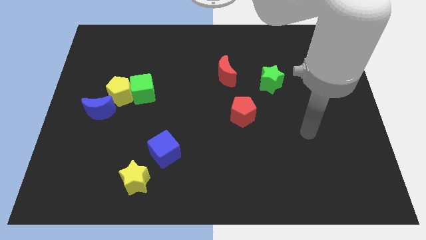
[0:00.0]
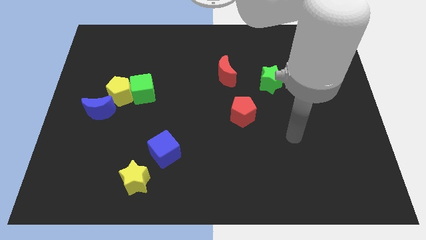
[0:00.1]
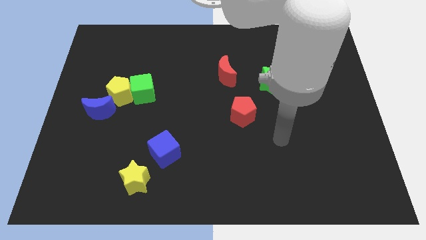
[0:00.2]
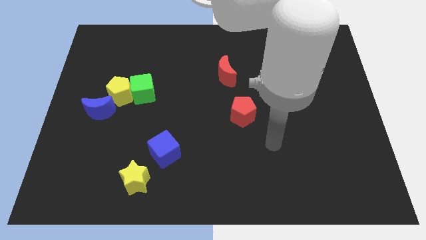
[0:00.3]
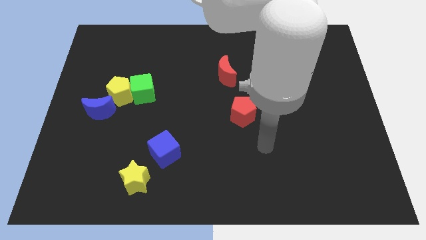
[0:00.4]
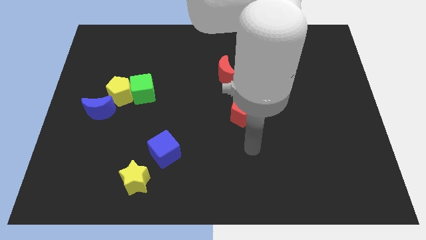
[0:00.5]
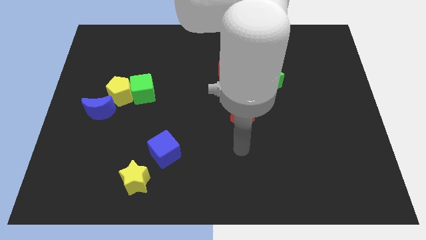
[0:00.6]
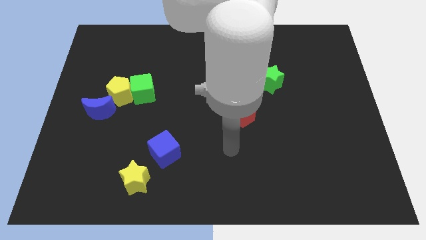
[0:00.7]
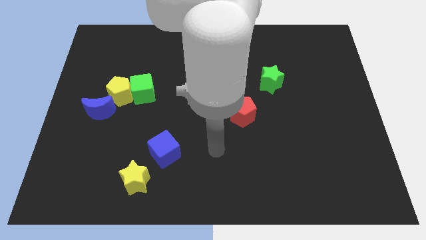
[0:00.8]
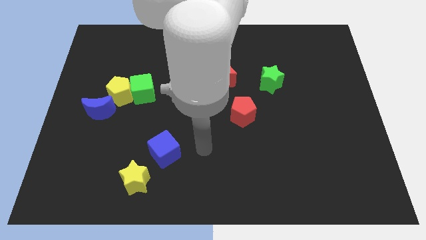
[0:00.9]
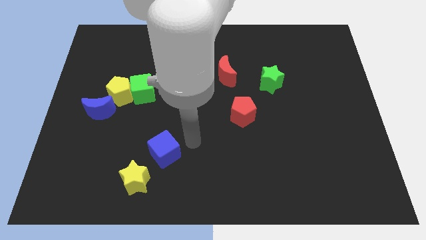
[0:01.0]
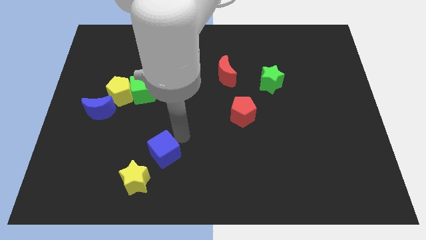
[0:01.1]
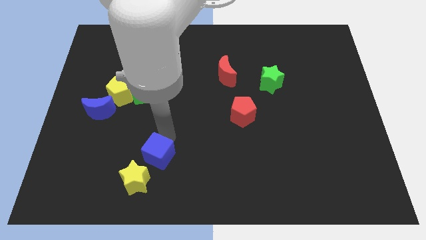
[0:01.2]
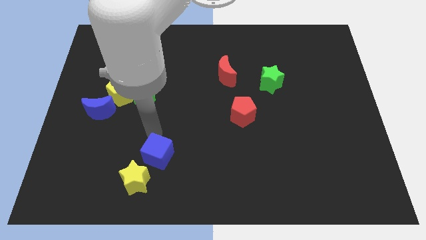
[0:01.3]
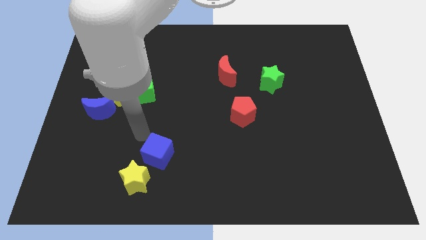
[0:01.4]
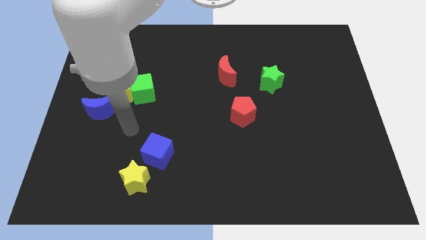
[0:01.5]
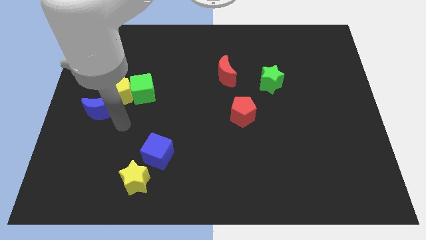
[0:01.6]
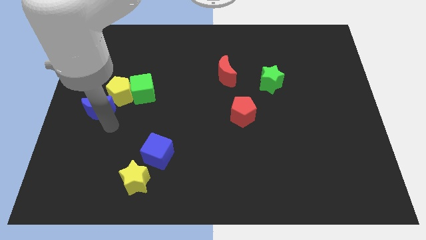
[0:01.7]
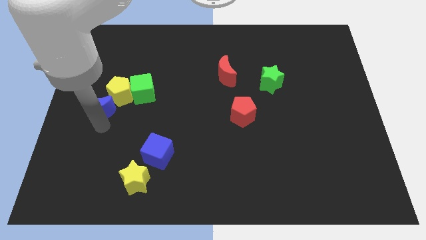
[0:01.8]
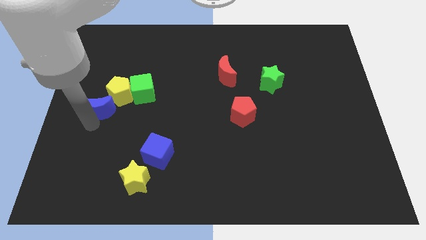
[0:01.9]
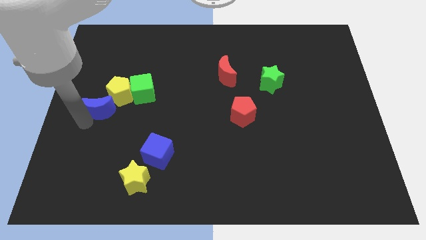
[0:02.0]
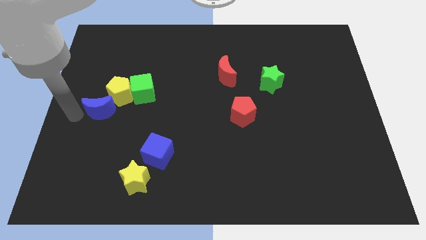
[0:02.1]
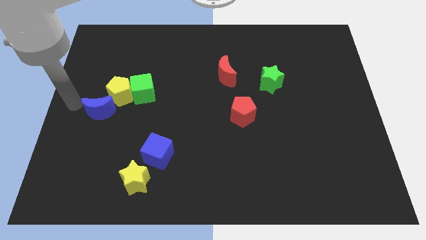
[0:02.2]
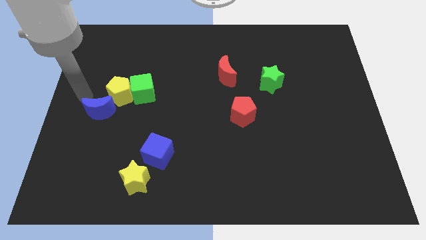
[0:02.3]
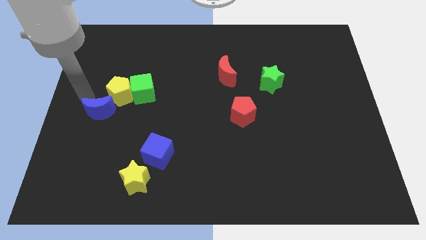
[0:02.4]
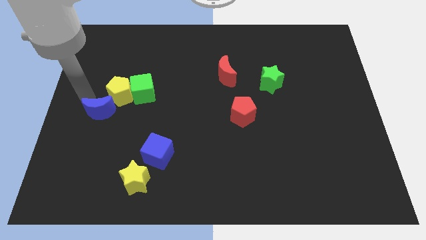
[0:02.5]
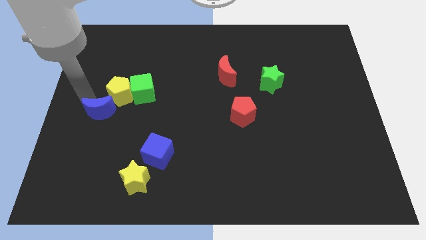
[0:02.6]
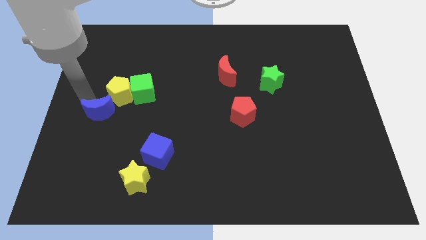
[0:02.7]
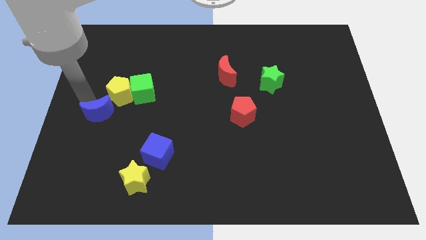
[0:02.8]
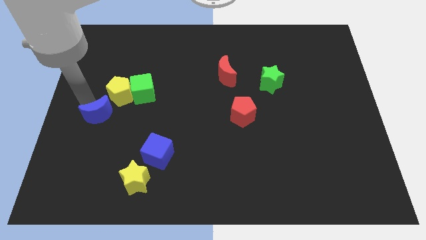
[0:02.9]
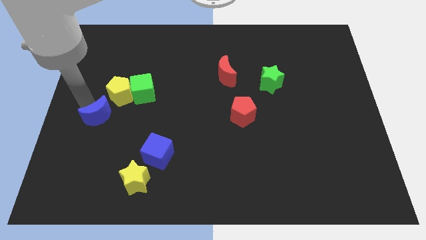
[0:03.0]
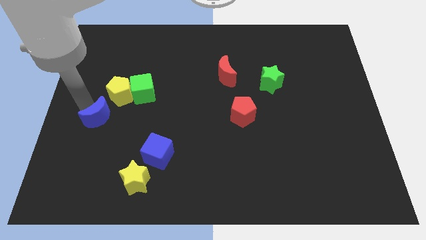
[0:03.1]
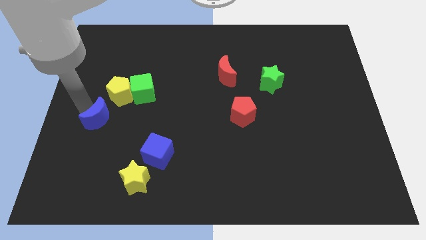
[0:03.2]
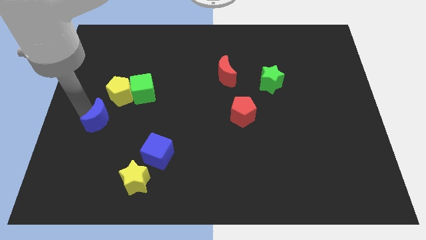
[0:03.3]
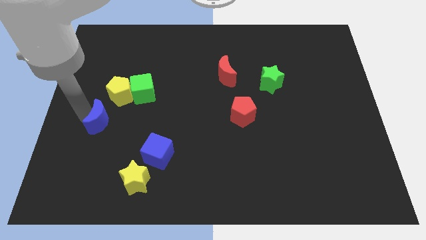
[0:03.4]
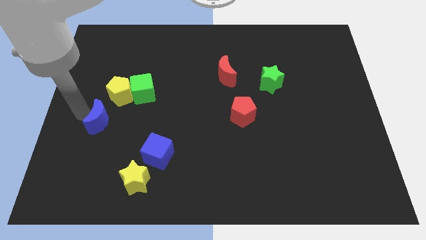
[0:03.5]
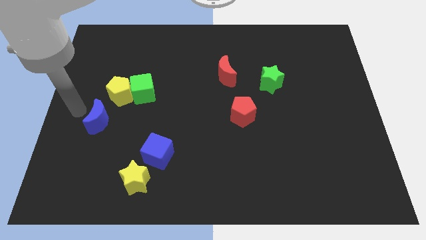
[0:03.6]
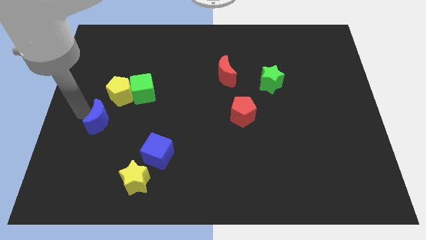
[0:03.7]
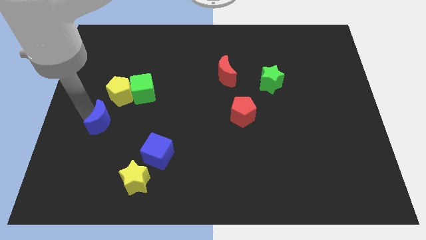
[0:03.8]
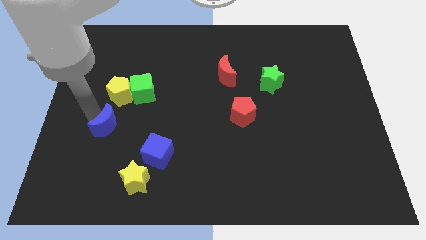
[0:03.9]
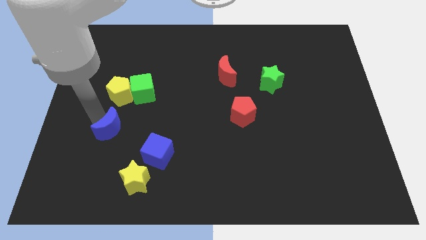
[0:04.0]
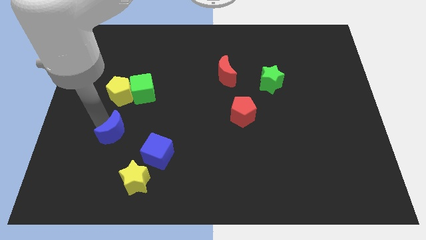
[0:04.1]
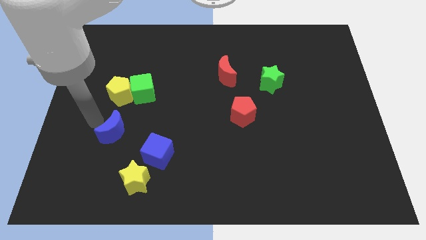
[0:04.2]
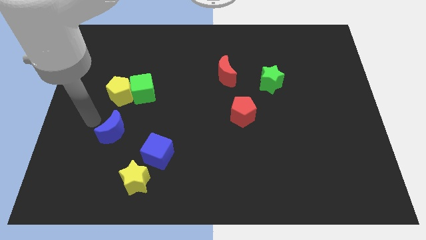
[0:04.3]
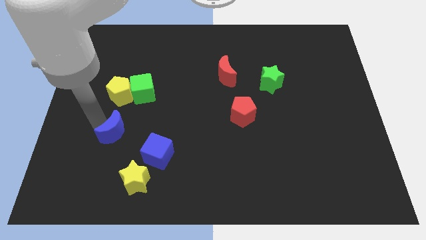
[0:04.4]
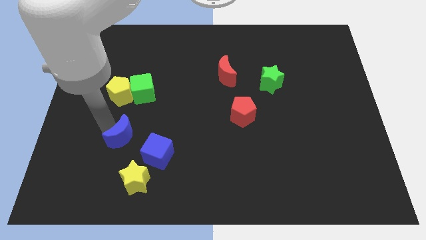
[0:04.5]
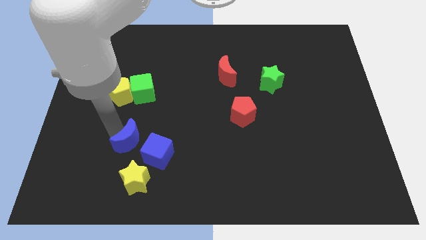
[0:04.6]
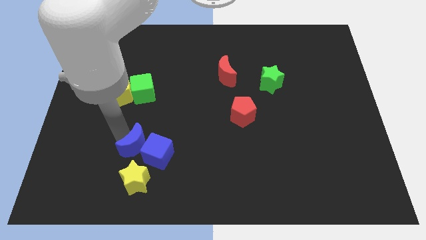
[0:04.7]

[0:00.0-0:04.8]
slide the blue moon towards the blue cube

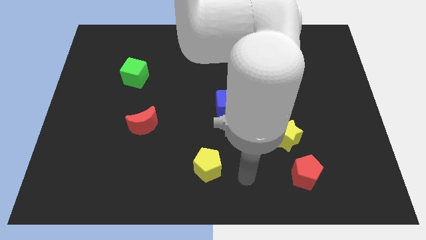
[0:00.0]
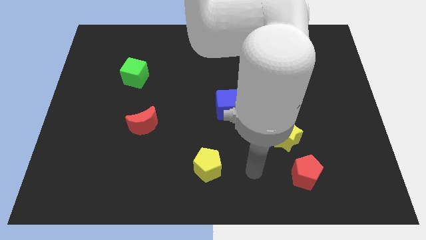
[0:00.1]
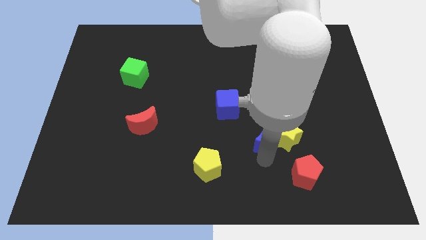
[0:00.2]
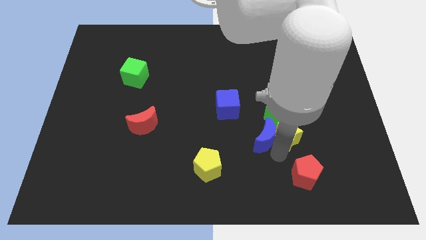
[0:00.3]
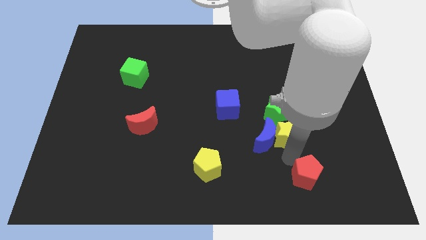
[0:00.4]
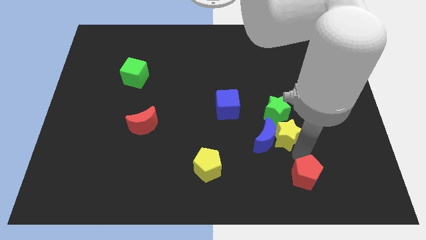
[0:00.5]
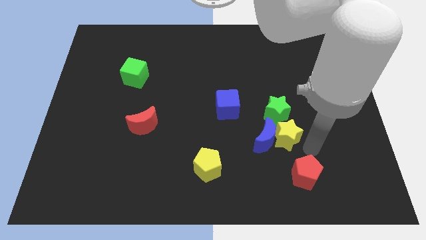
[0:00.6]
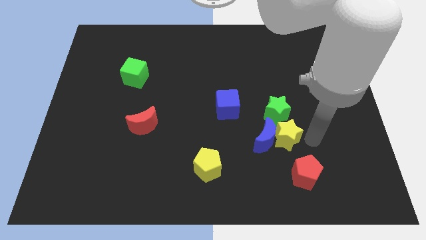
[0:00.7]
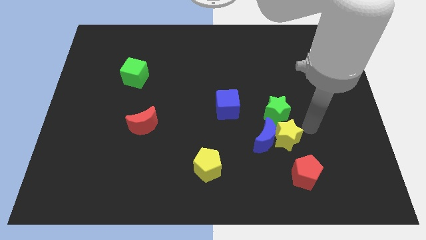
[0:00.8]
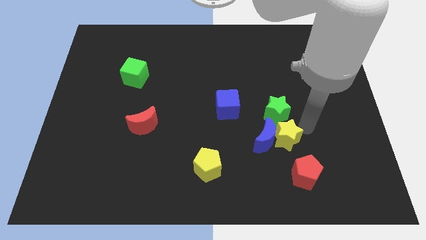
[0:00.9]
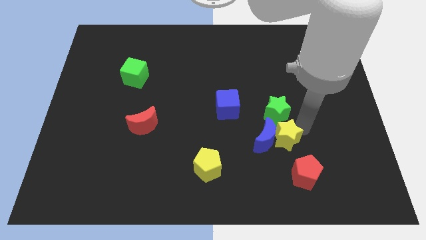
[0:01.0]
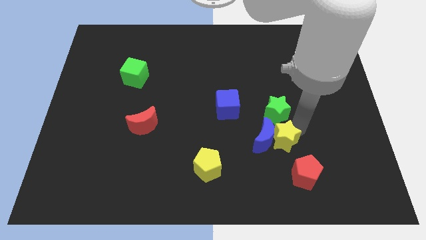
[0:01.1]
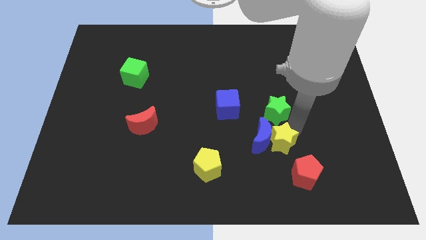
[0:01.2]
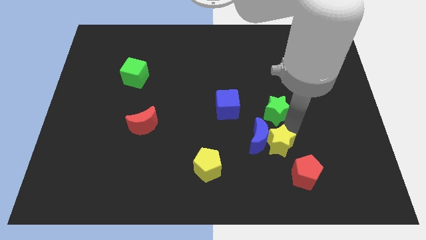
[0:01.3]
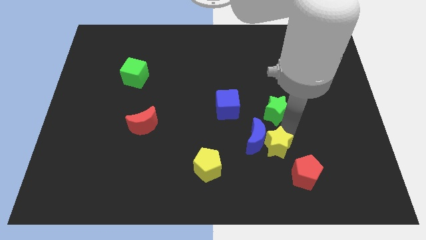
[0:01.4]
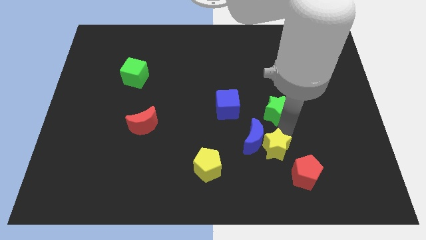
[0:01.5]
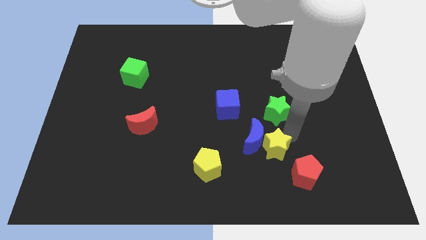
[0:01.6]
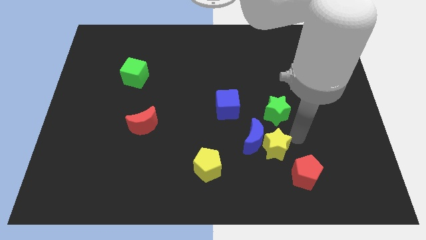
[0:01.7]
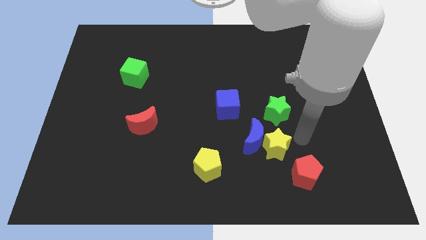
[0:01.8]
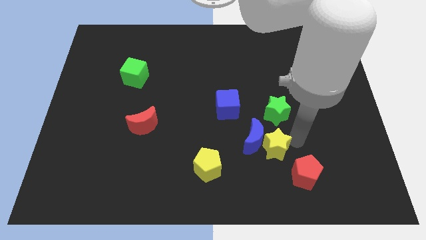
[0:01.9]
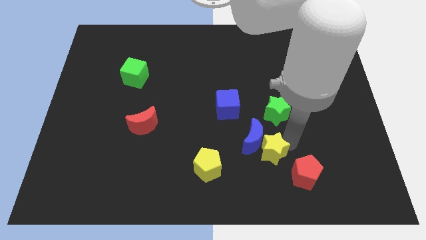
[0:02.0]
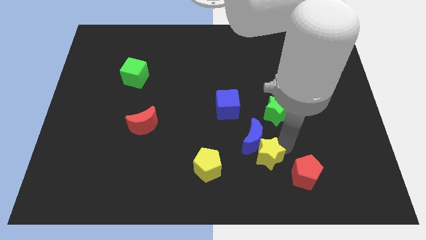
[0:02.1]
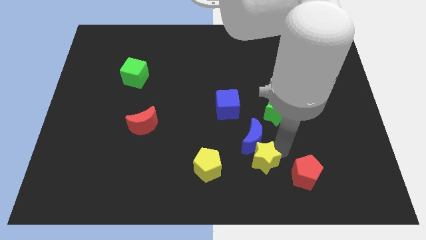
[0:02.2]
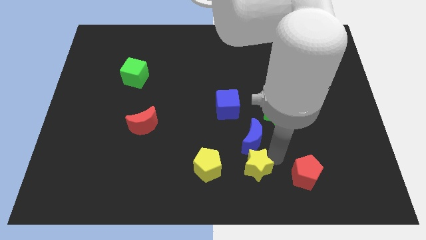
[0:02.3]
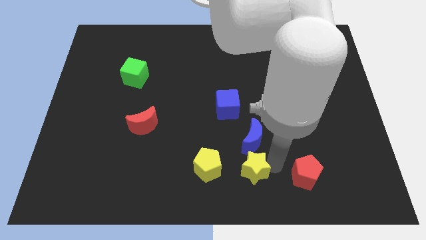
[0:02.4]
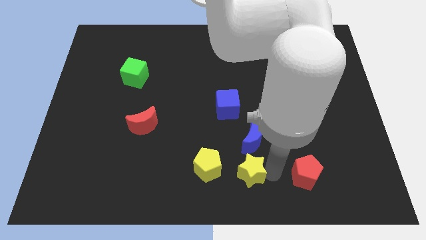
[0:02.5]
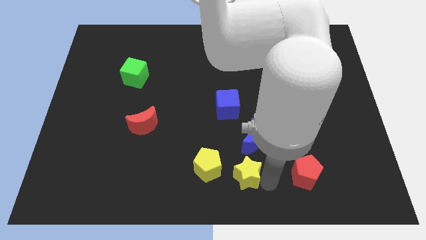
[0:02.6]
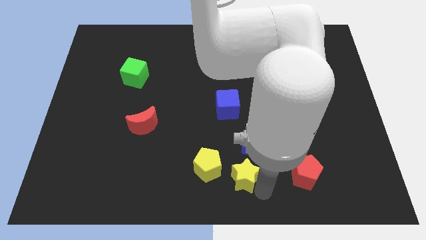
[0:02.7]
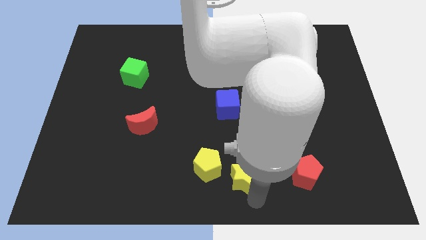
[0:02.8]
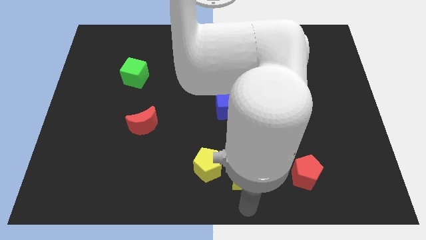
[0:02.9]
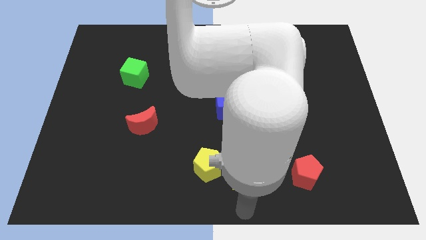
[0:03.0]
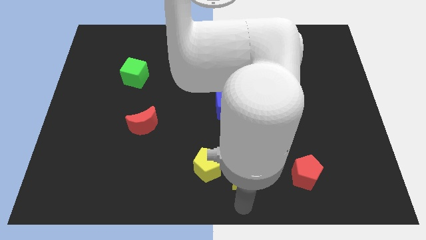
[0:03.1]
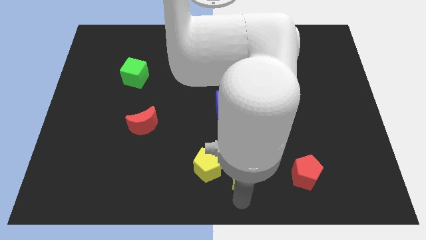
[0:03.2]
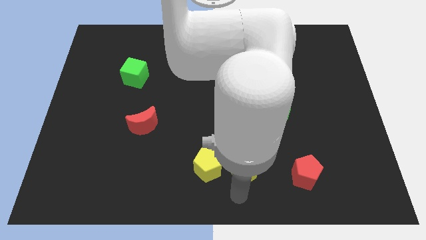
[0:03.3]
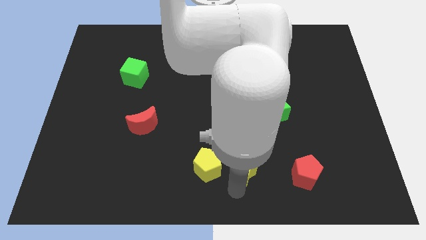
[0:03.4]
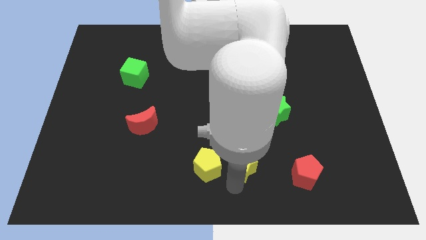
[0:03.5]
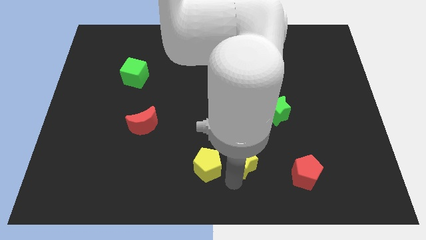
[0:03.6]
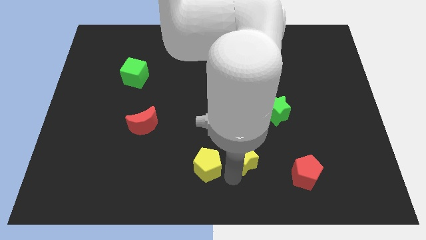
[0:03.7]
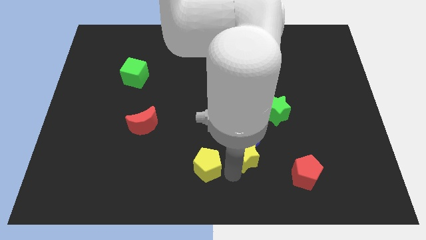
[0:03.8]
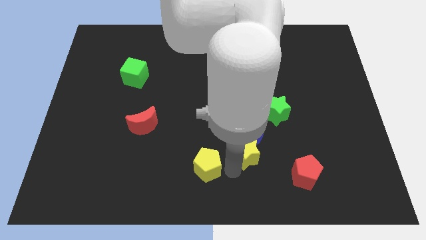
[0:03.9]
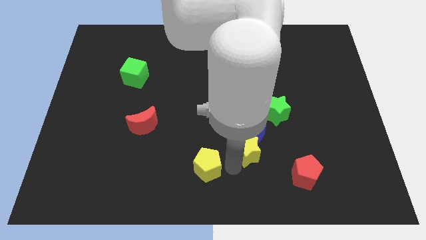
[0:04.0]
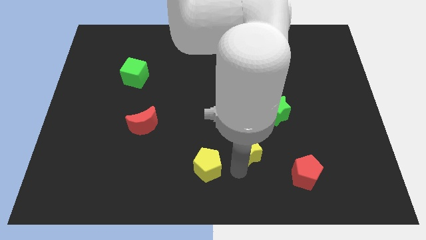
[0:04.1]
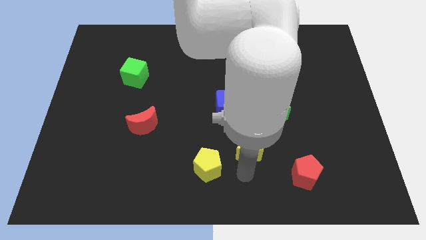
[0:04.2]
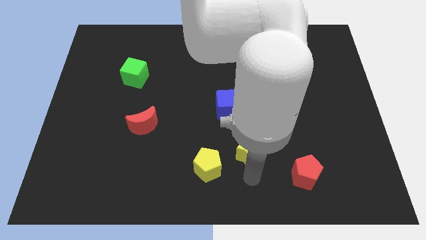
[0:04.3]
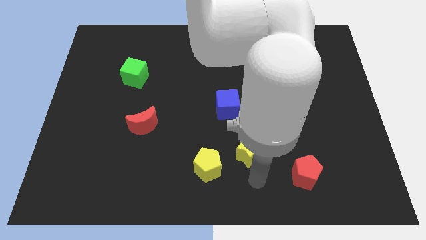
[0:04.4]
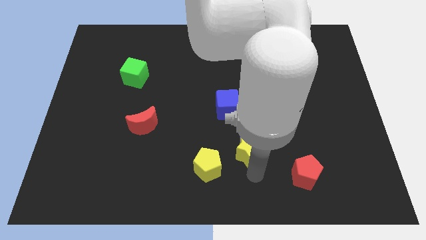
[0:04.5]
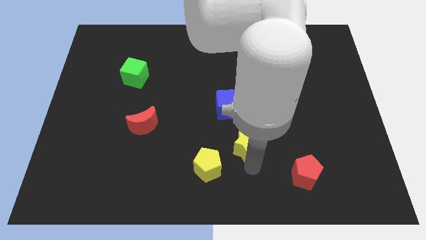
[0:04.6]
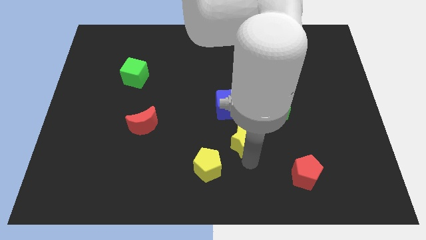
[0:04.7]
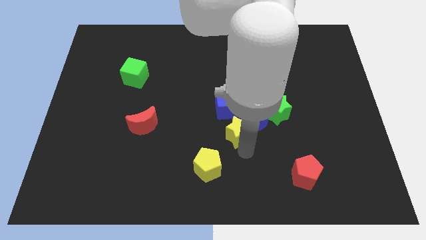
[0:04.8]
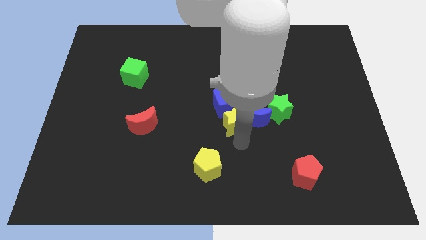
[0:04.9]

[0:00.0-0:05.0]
push the yellow star close to the blue cube
